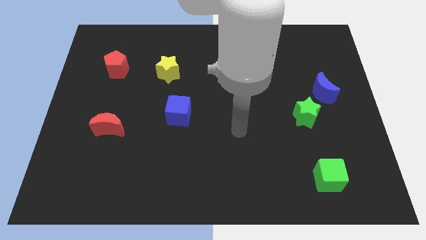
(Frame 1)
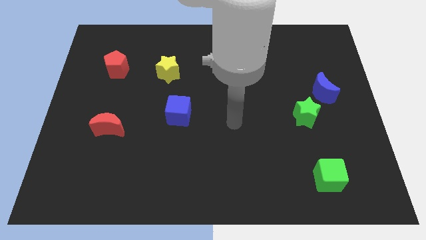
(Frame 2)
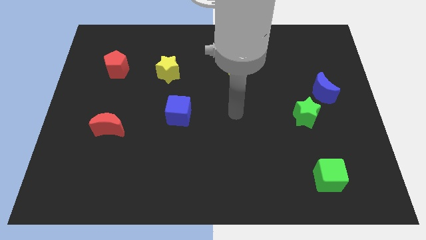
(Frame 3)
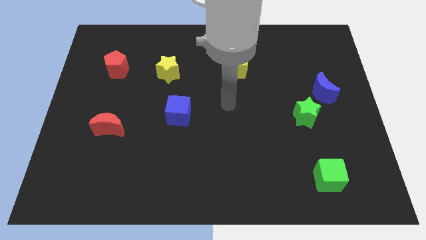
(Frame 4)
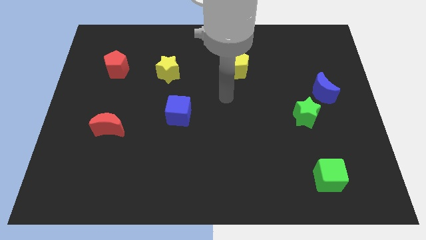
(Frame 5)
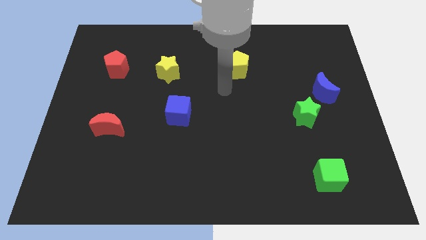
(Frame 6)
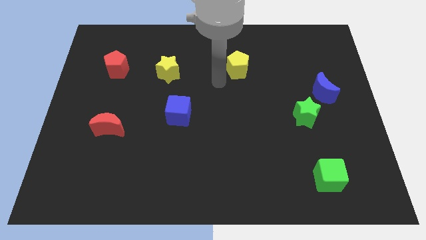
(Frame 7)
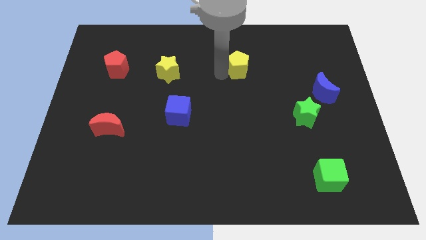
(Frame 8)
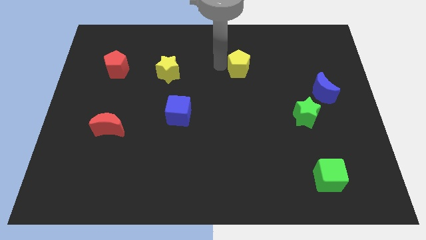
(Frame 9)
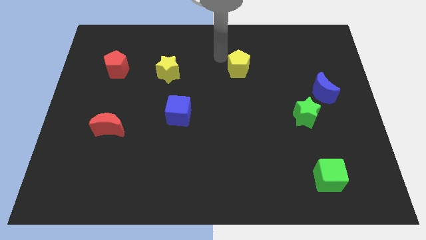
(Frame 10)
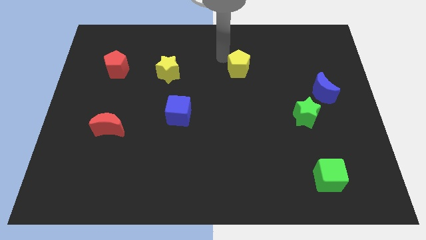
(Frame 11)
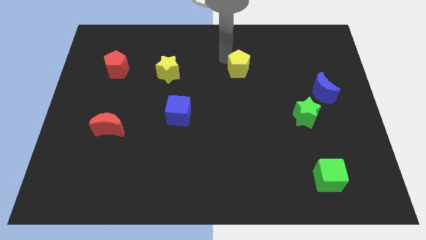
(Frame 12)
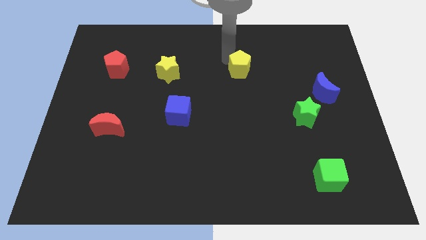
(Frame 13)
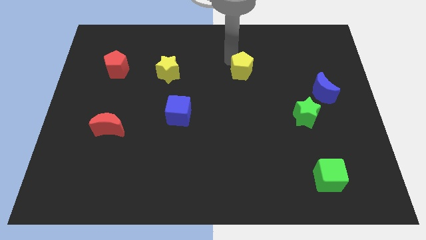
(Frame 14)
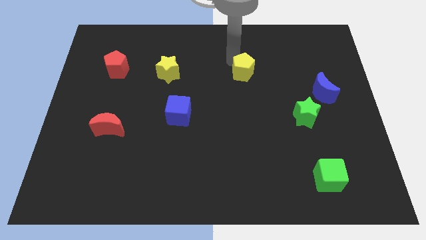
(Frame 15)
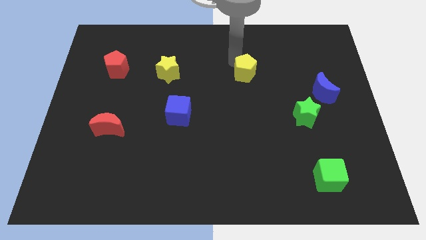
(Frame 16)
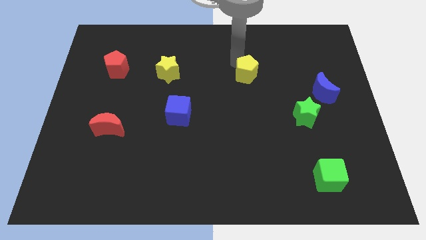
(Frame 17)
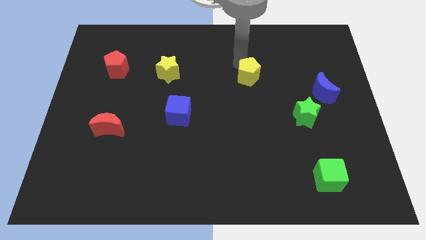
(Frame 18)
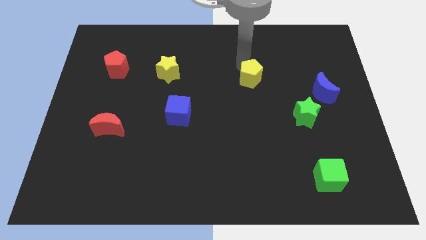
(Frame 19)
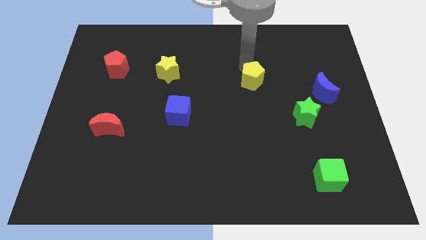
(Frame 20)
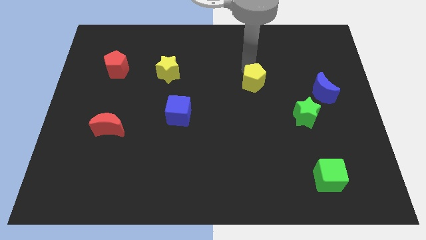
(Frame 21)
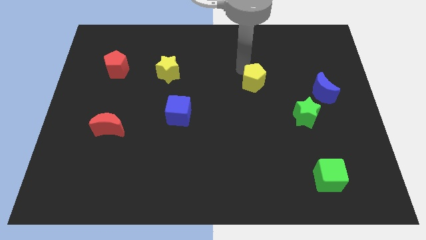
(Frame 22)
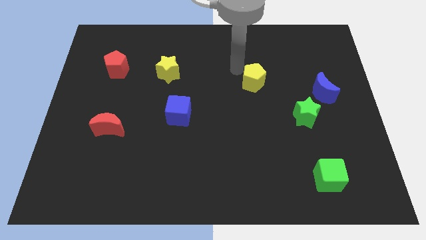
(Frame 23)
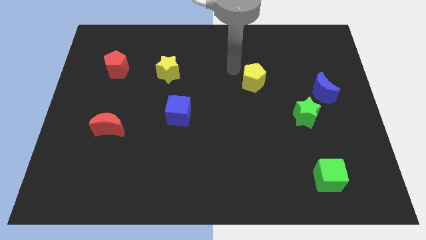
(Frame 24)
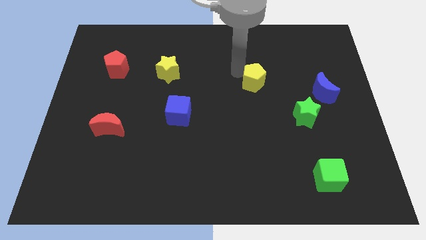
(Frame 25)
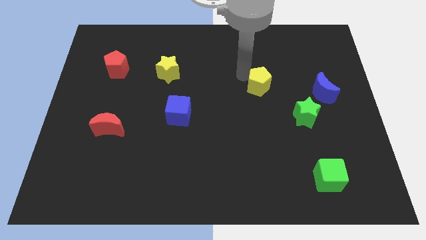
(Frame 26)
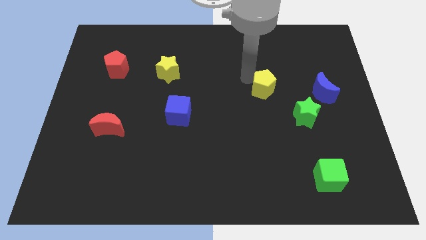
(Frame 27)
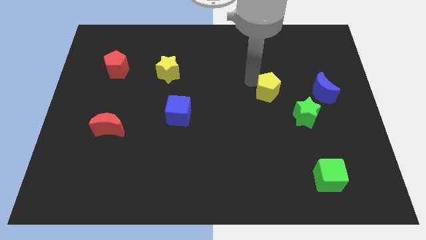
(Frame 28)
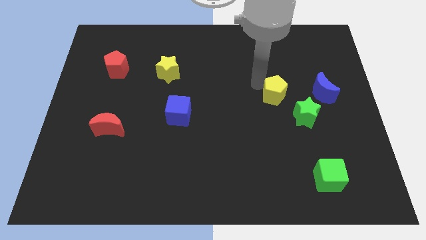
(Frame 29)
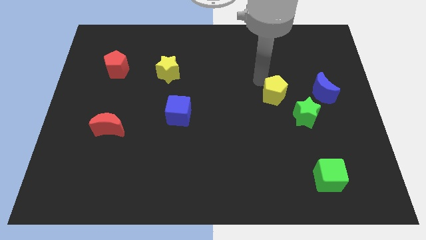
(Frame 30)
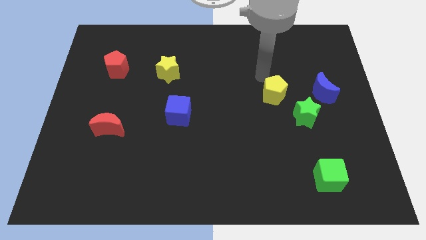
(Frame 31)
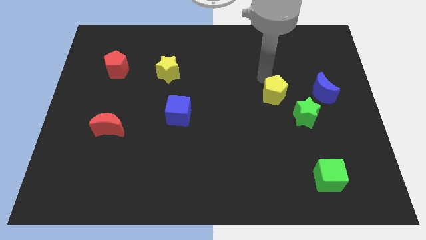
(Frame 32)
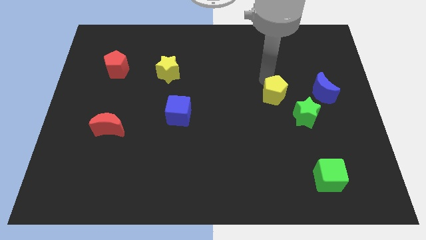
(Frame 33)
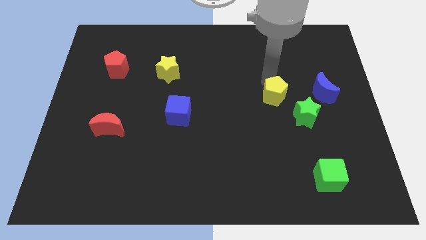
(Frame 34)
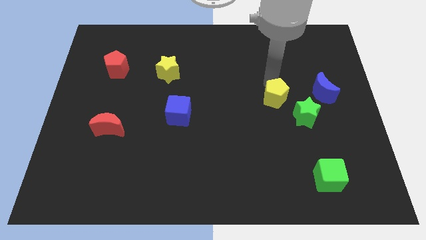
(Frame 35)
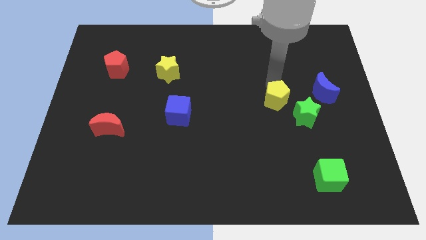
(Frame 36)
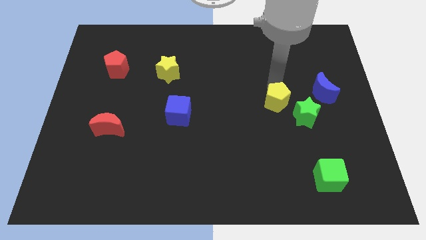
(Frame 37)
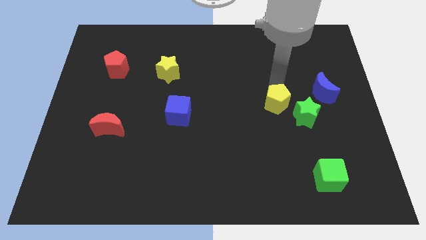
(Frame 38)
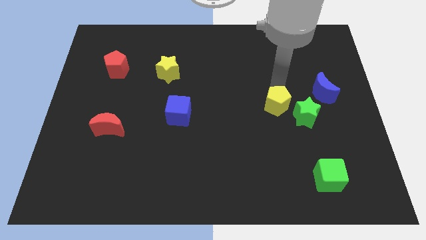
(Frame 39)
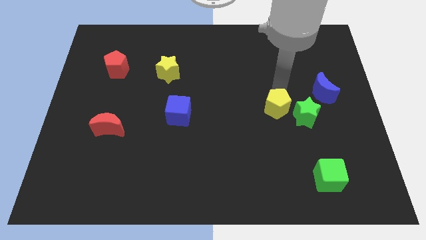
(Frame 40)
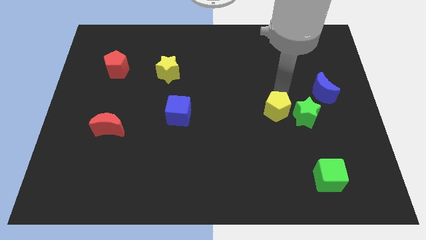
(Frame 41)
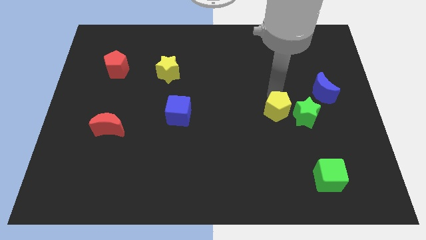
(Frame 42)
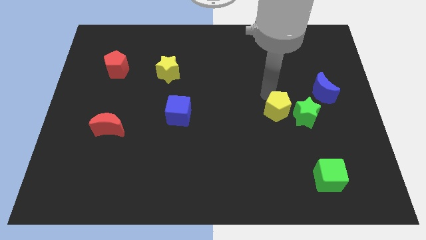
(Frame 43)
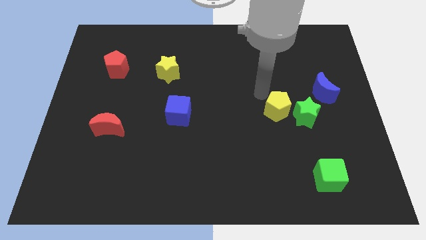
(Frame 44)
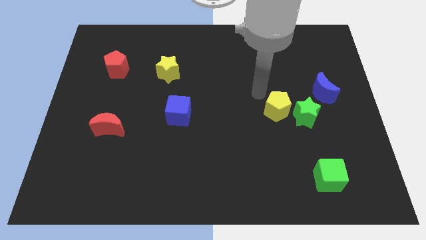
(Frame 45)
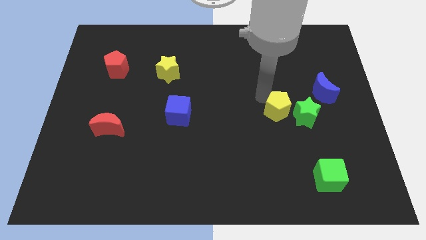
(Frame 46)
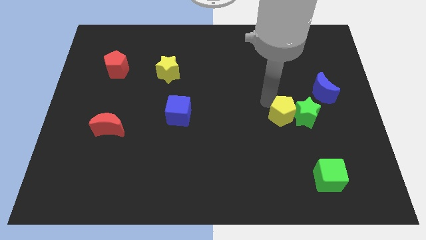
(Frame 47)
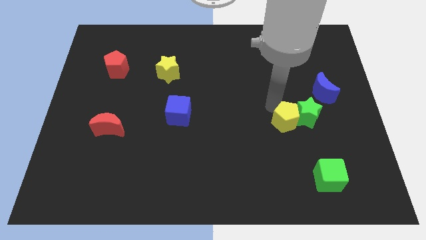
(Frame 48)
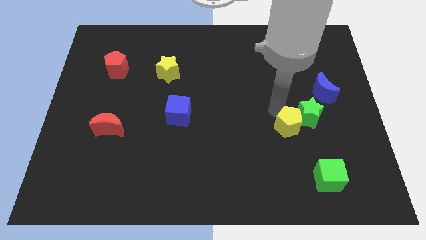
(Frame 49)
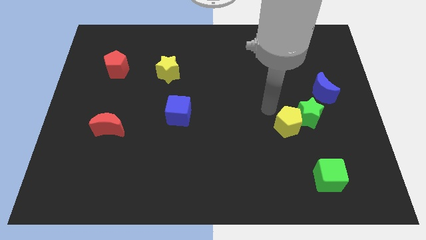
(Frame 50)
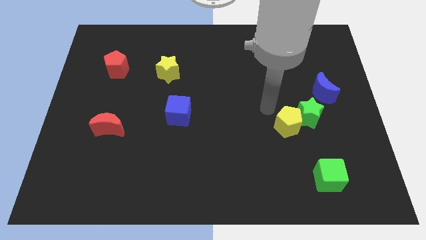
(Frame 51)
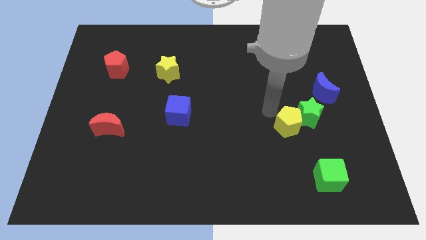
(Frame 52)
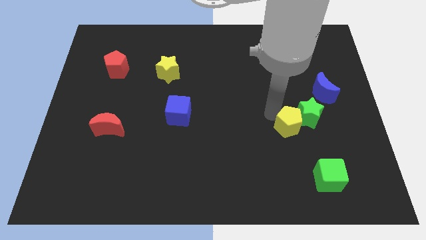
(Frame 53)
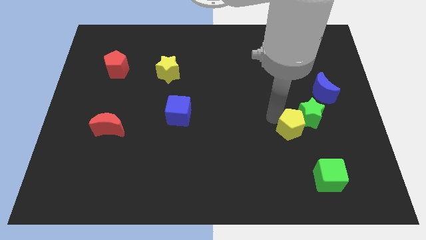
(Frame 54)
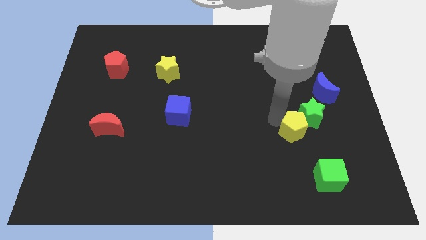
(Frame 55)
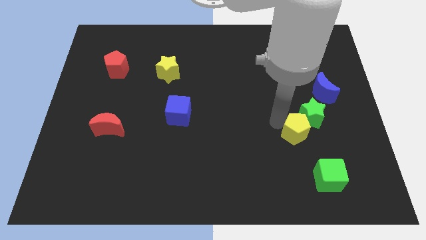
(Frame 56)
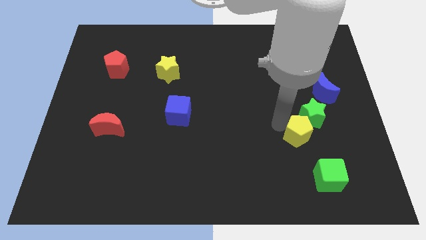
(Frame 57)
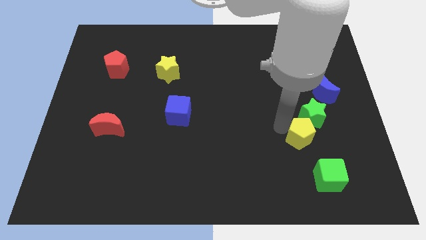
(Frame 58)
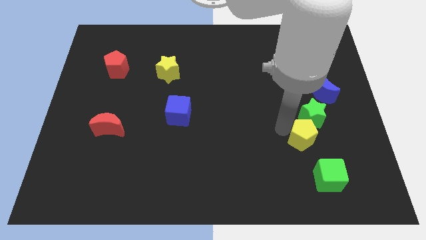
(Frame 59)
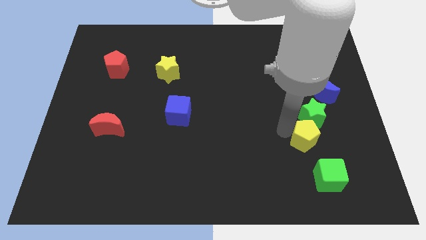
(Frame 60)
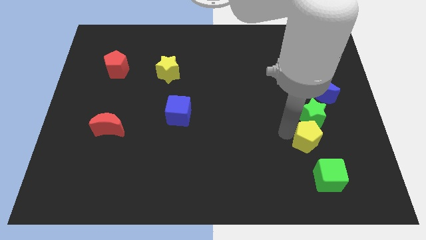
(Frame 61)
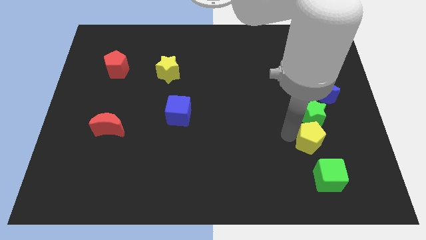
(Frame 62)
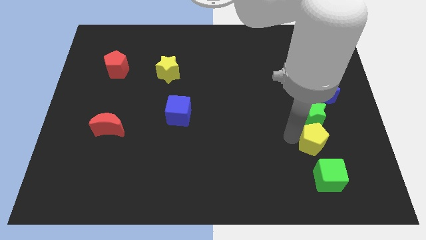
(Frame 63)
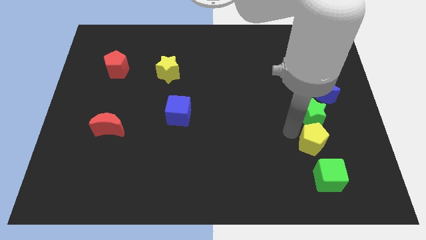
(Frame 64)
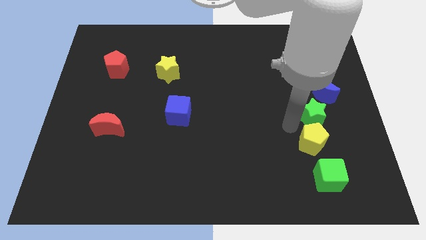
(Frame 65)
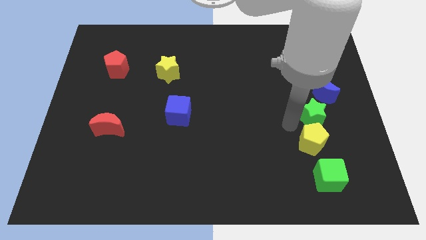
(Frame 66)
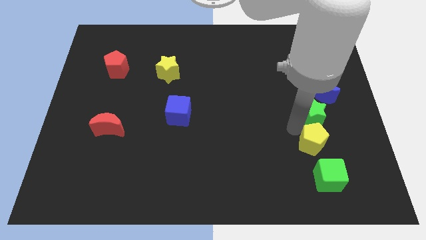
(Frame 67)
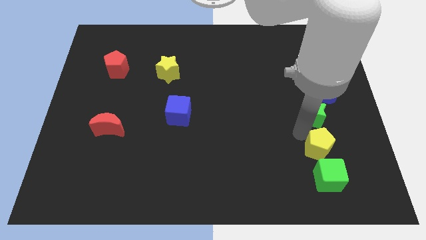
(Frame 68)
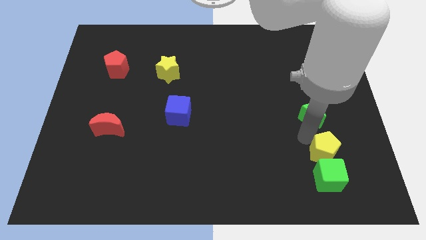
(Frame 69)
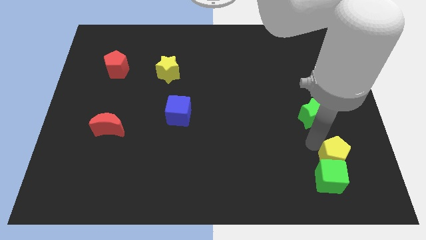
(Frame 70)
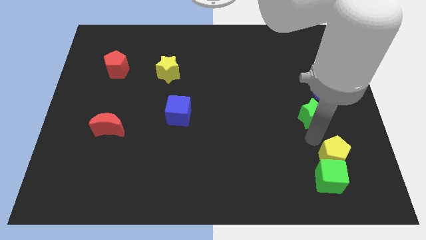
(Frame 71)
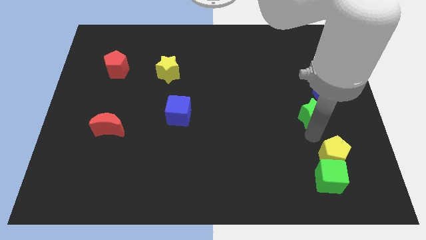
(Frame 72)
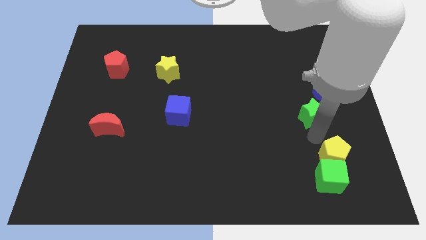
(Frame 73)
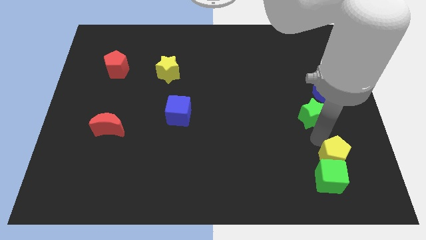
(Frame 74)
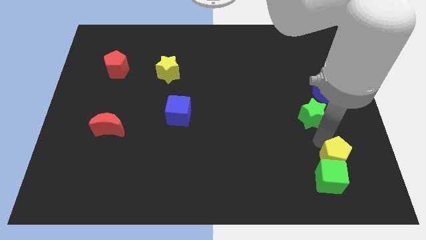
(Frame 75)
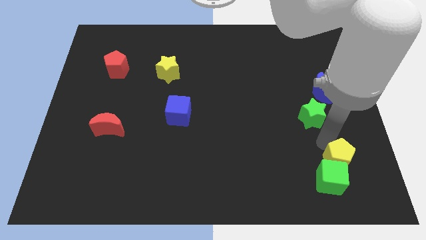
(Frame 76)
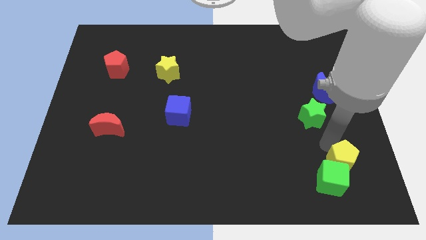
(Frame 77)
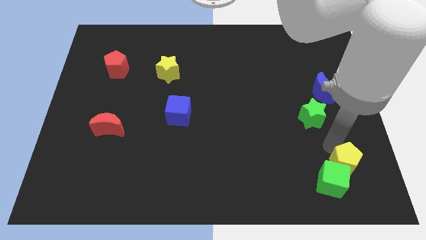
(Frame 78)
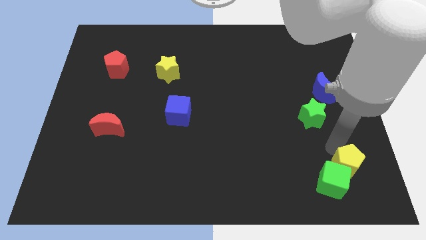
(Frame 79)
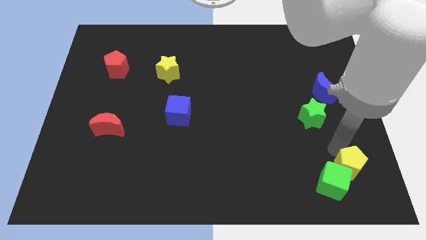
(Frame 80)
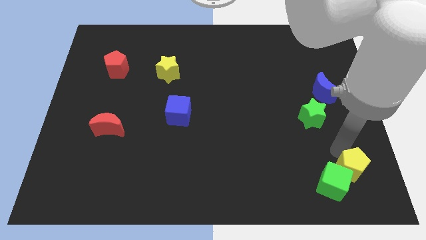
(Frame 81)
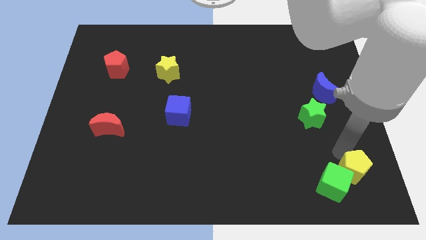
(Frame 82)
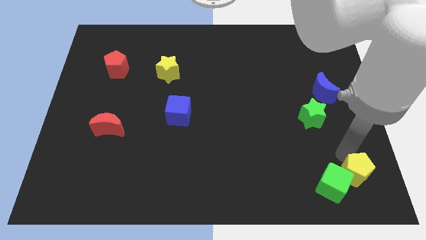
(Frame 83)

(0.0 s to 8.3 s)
move the yellow pentagon to the bottom right corner
